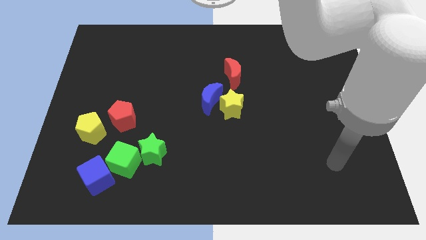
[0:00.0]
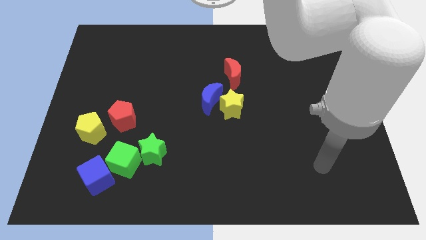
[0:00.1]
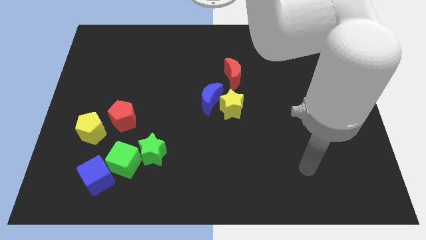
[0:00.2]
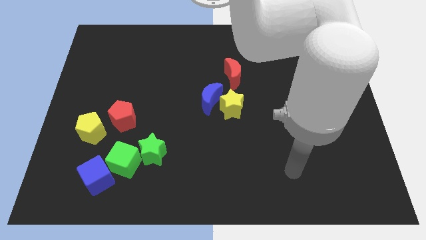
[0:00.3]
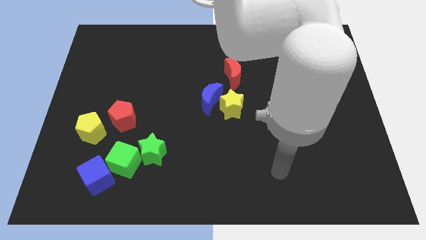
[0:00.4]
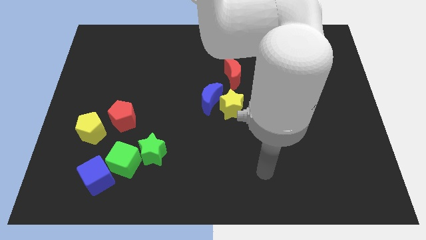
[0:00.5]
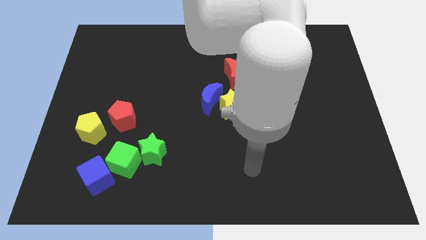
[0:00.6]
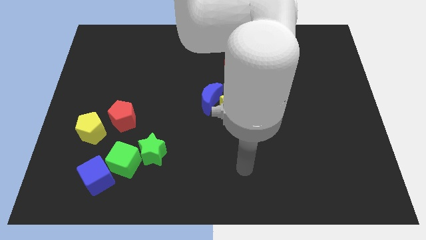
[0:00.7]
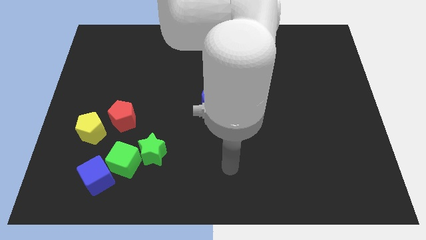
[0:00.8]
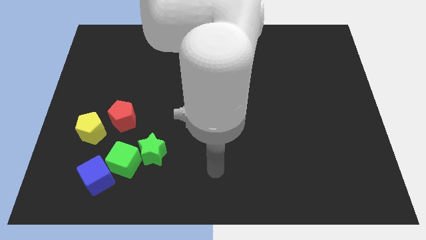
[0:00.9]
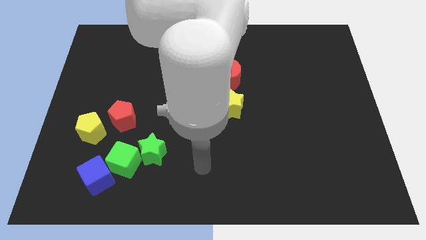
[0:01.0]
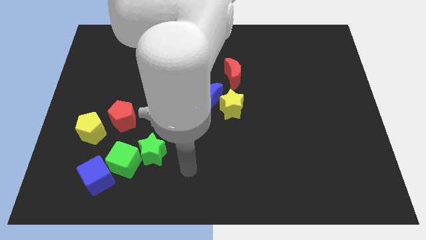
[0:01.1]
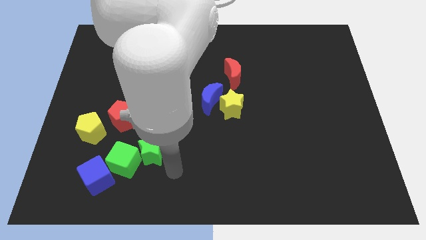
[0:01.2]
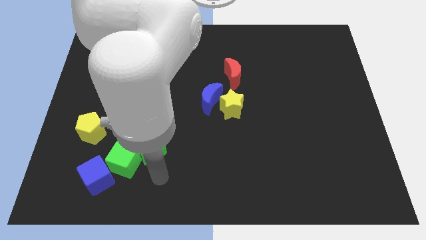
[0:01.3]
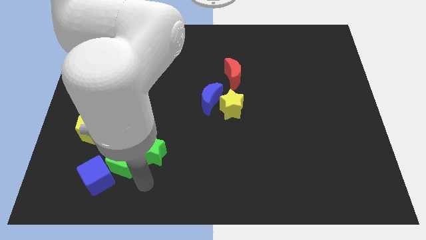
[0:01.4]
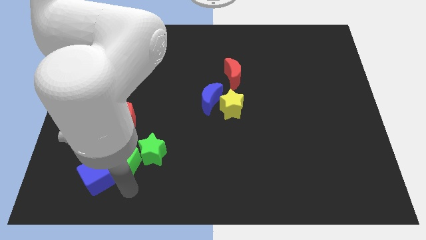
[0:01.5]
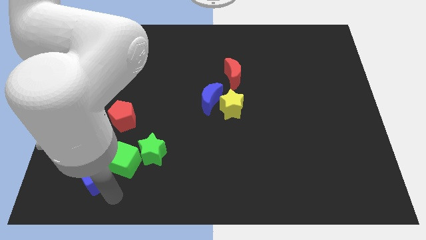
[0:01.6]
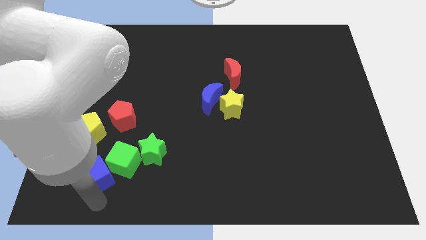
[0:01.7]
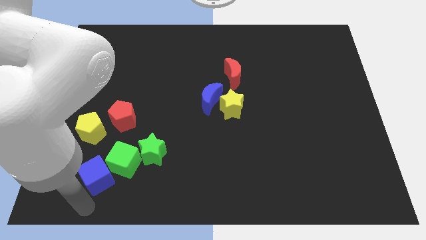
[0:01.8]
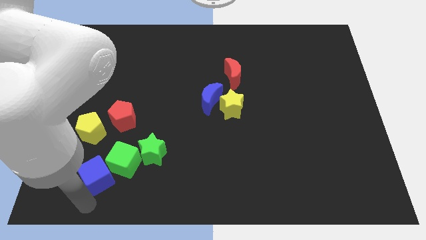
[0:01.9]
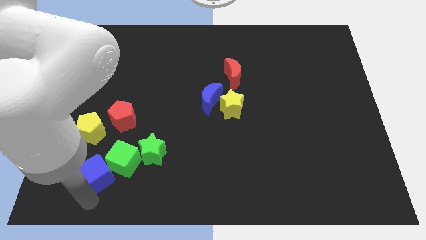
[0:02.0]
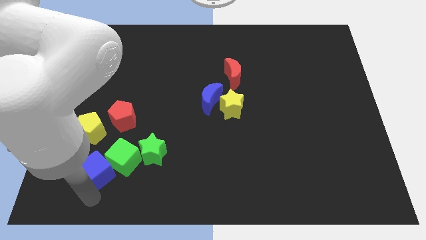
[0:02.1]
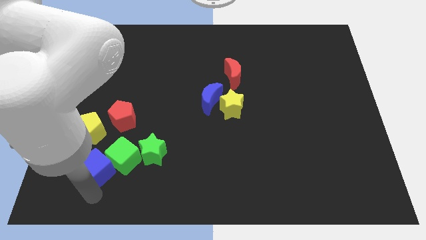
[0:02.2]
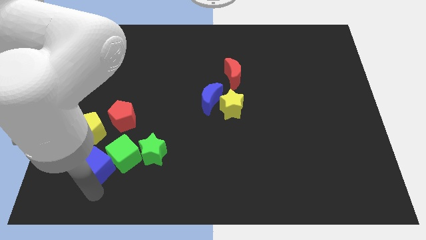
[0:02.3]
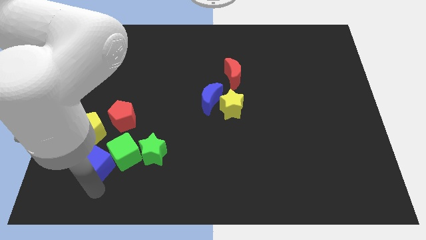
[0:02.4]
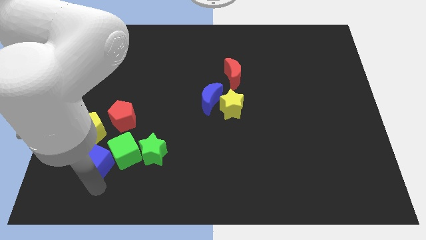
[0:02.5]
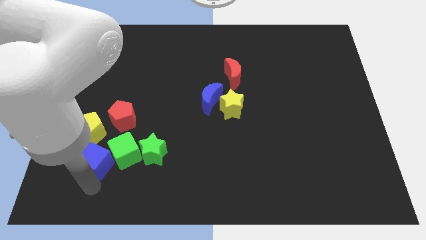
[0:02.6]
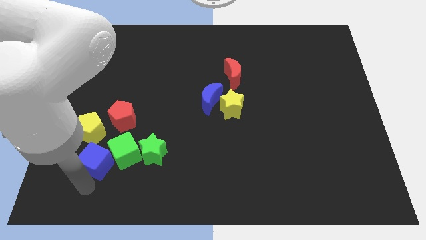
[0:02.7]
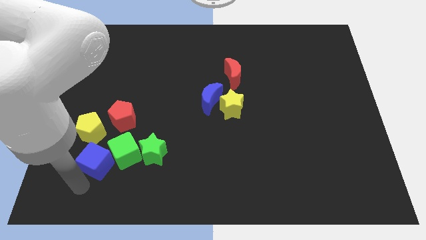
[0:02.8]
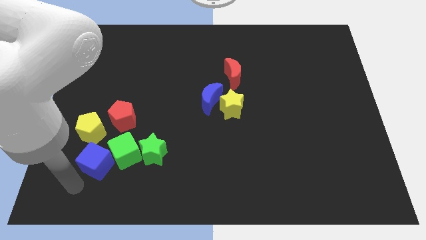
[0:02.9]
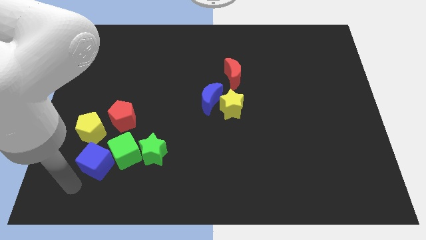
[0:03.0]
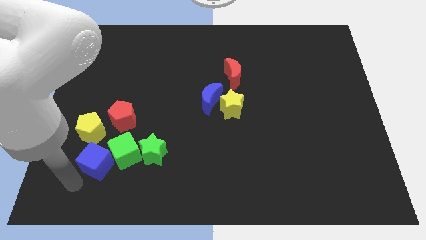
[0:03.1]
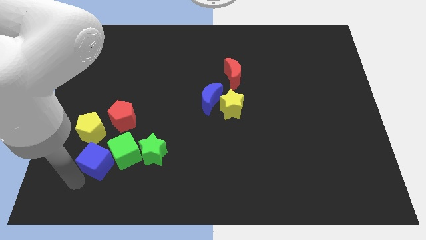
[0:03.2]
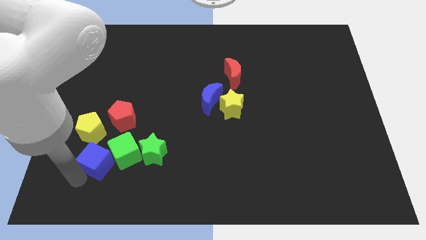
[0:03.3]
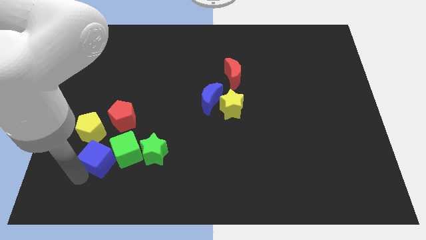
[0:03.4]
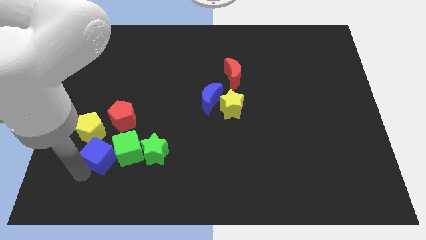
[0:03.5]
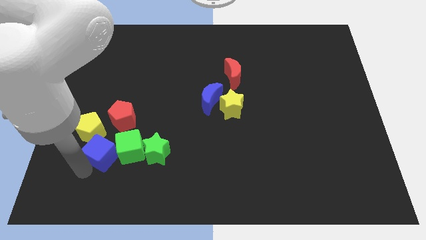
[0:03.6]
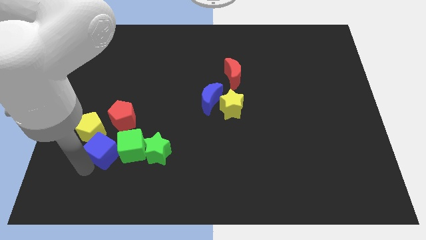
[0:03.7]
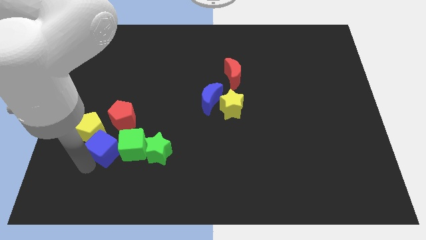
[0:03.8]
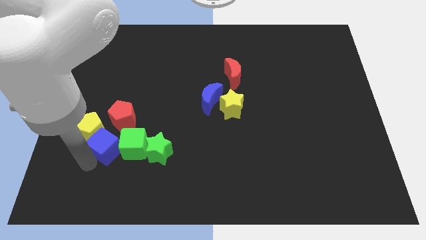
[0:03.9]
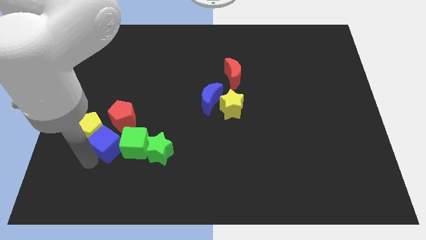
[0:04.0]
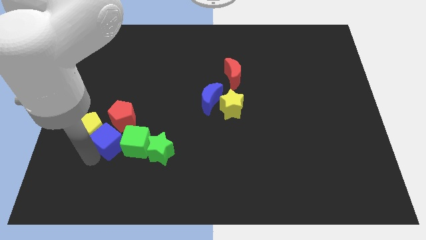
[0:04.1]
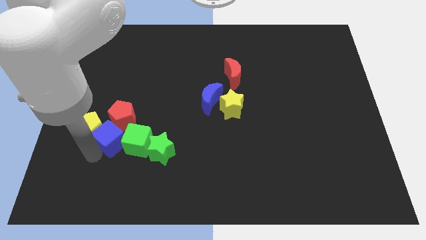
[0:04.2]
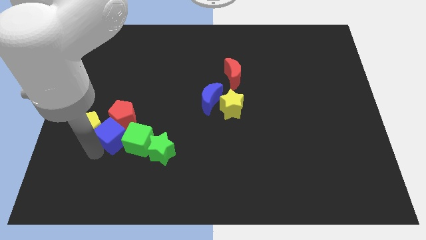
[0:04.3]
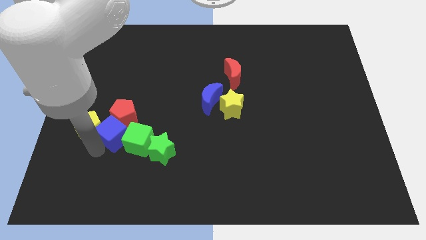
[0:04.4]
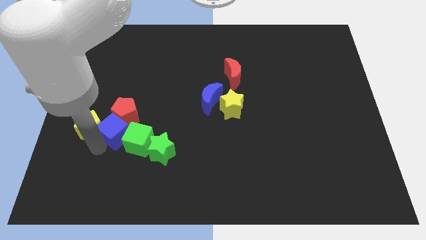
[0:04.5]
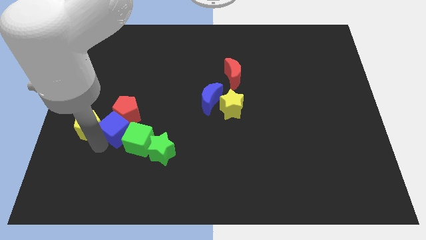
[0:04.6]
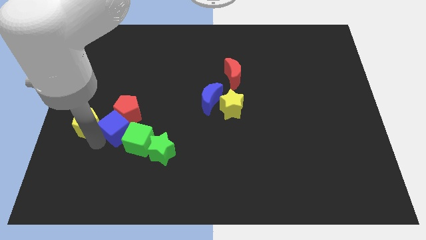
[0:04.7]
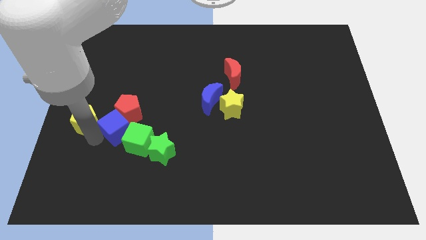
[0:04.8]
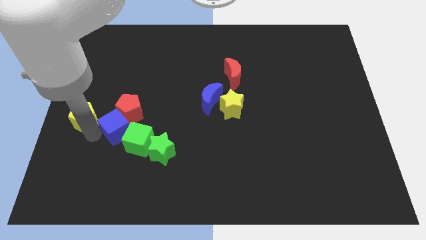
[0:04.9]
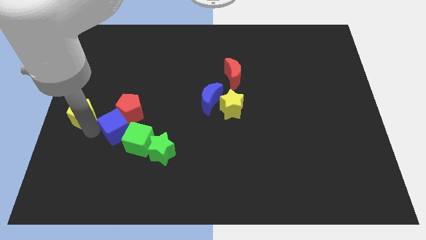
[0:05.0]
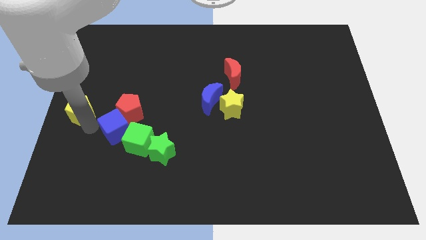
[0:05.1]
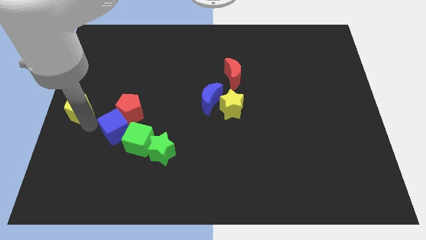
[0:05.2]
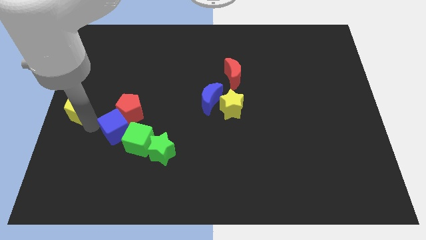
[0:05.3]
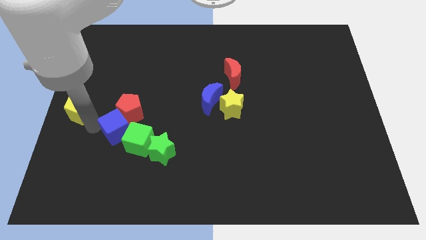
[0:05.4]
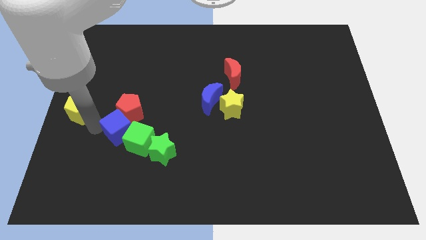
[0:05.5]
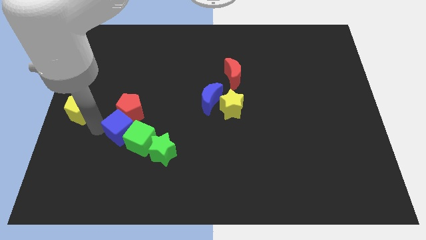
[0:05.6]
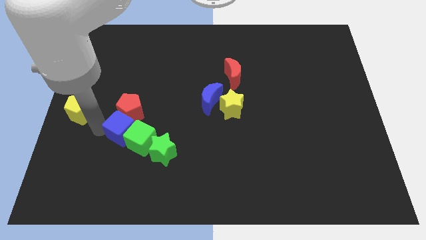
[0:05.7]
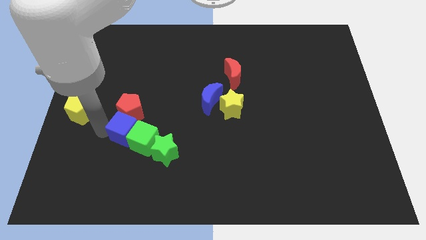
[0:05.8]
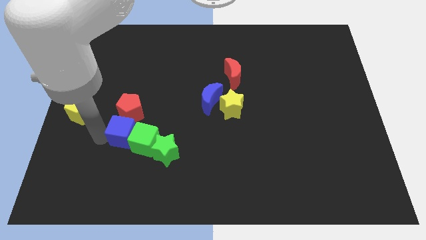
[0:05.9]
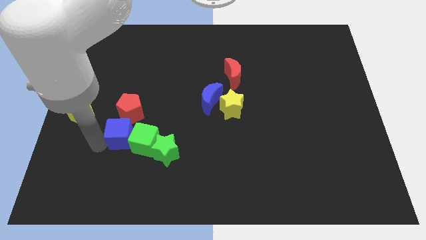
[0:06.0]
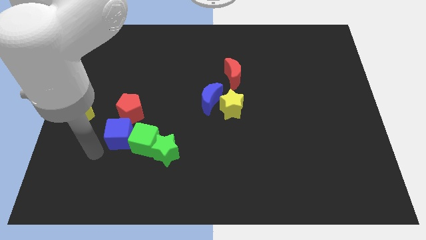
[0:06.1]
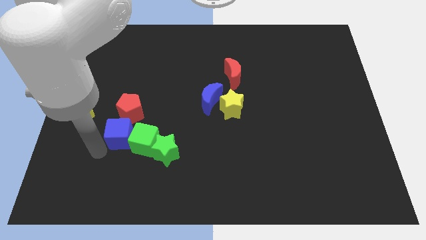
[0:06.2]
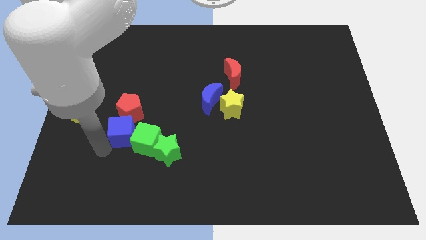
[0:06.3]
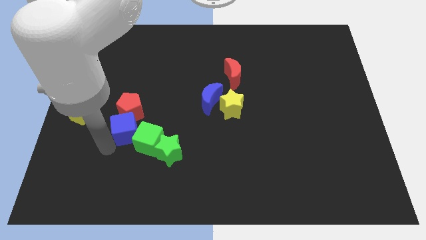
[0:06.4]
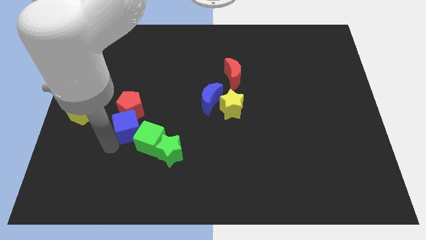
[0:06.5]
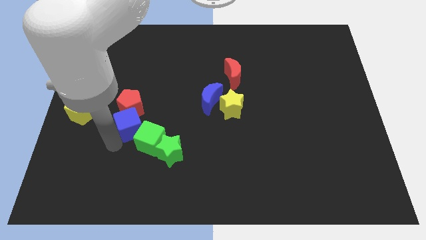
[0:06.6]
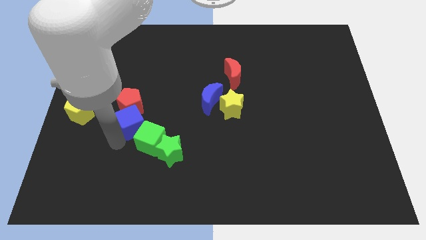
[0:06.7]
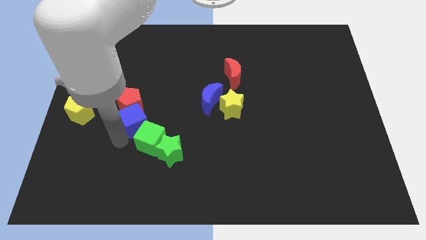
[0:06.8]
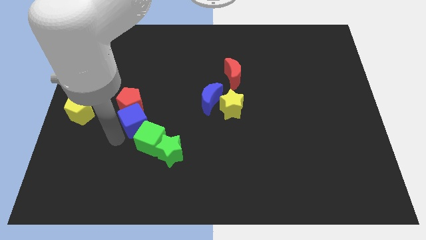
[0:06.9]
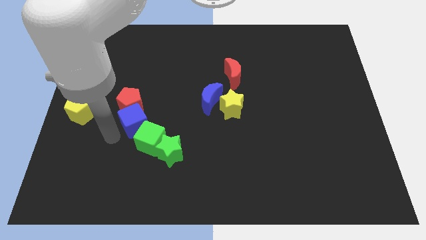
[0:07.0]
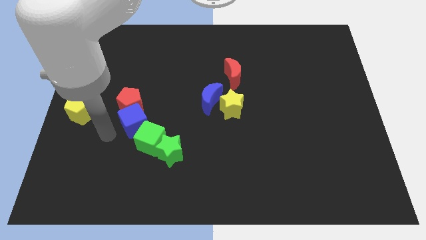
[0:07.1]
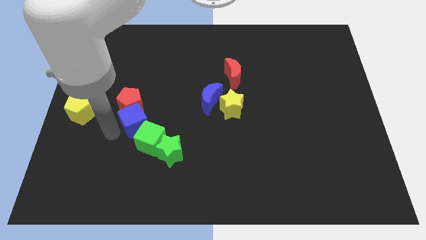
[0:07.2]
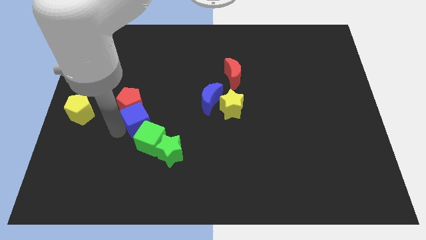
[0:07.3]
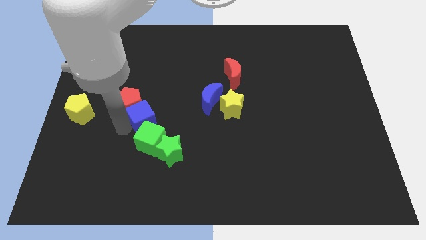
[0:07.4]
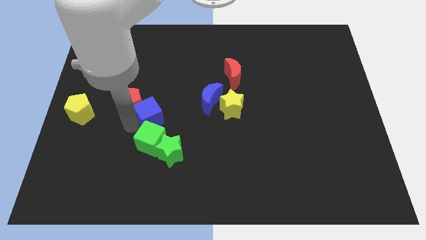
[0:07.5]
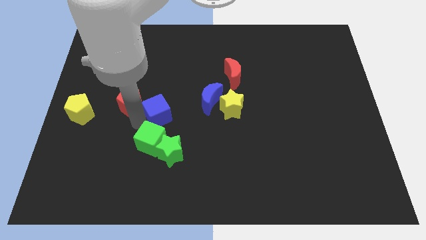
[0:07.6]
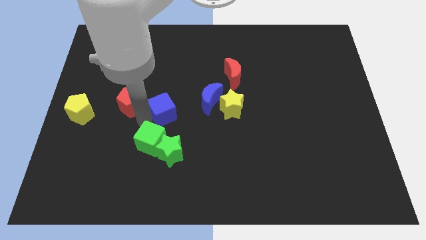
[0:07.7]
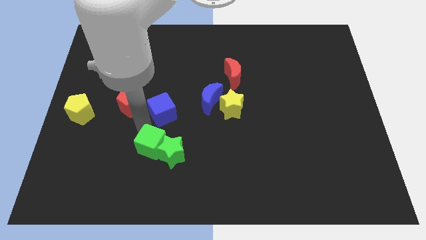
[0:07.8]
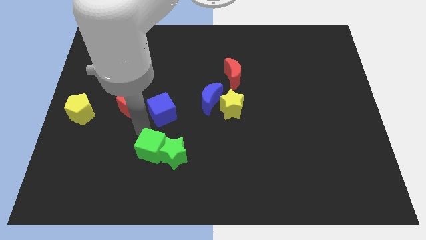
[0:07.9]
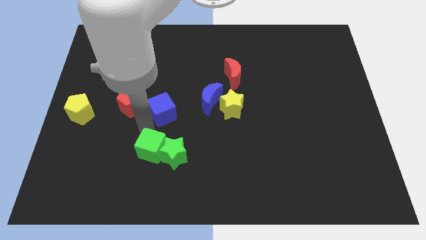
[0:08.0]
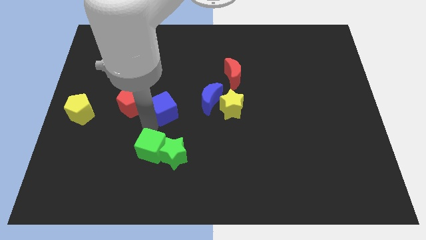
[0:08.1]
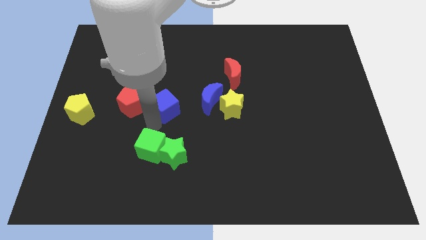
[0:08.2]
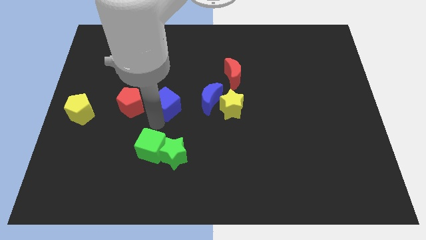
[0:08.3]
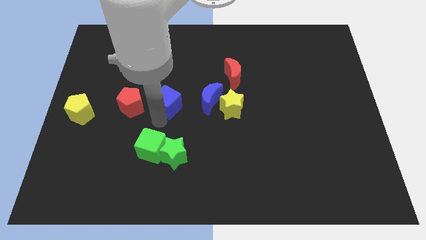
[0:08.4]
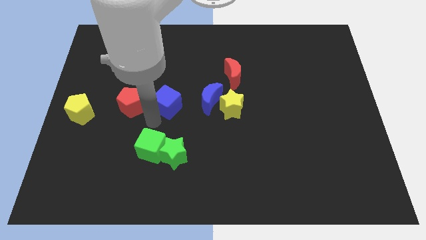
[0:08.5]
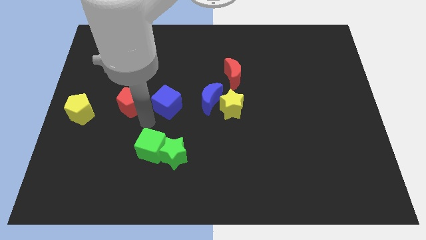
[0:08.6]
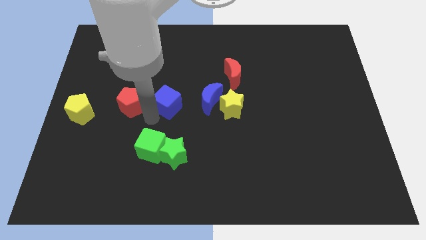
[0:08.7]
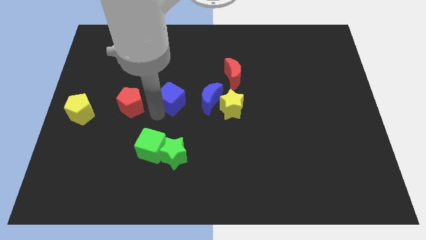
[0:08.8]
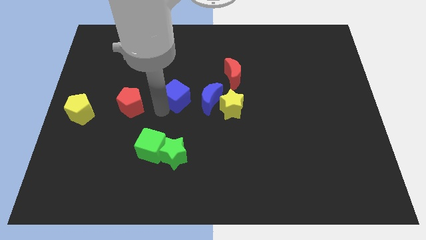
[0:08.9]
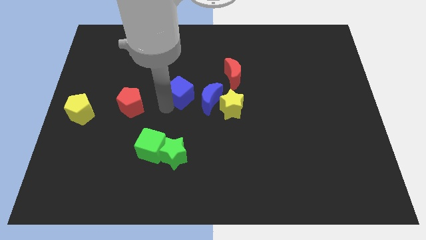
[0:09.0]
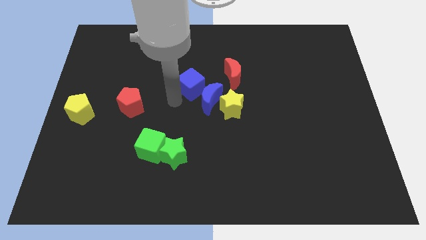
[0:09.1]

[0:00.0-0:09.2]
put the blue cube above the blue moon
